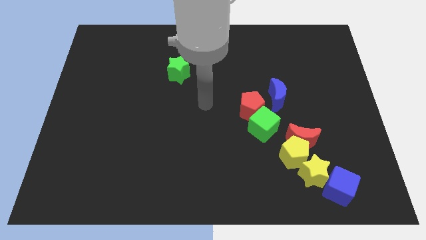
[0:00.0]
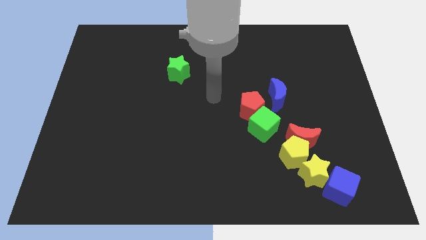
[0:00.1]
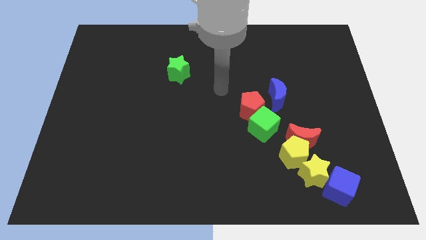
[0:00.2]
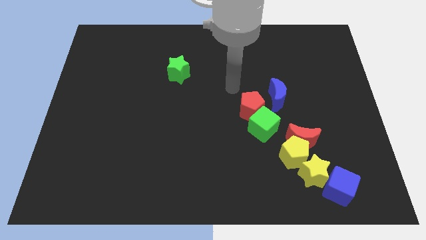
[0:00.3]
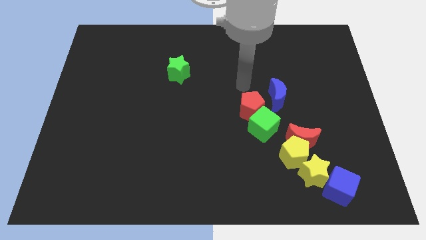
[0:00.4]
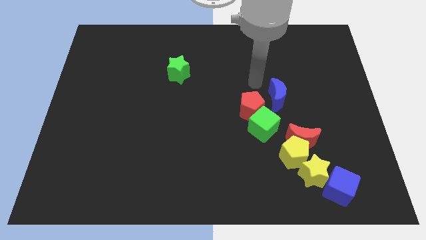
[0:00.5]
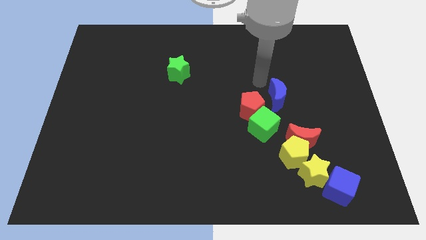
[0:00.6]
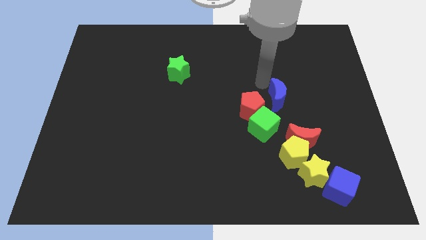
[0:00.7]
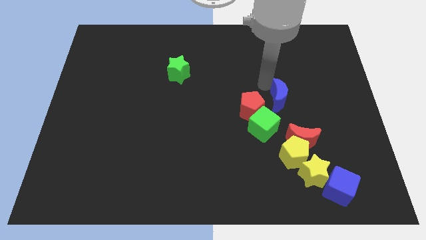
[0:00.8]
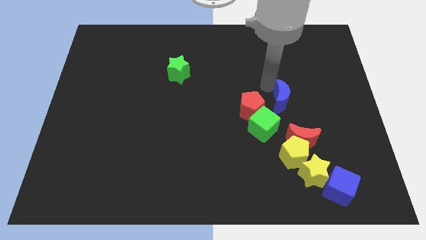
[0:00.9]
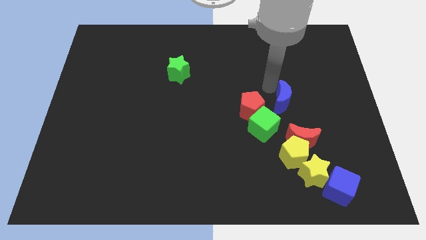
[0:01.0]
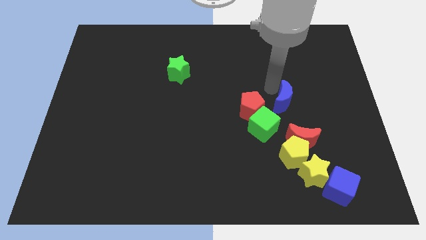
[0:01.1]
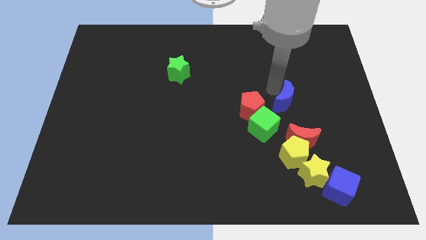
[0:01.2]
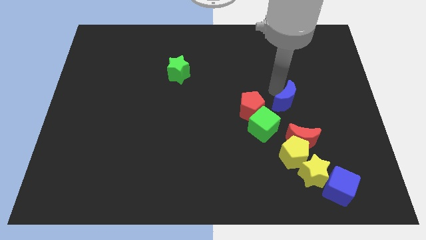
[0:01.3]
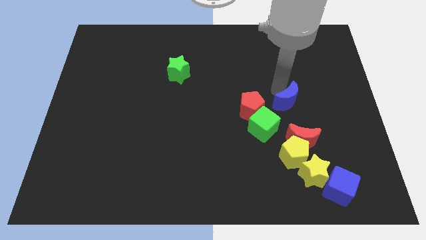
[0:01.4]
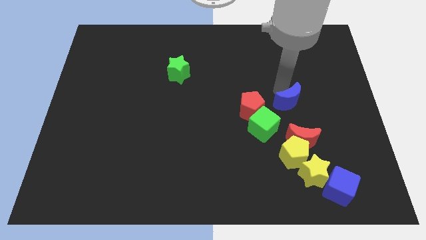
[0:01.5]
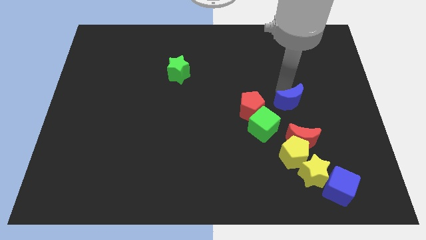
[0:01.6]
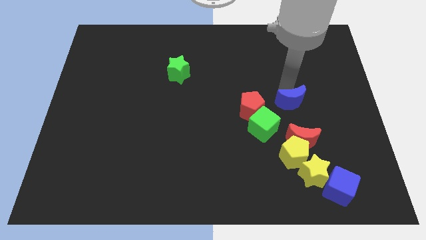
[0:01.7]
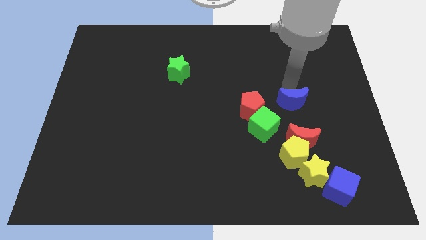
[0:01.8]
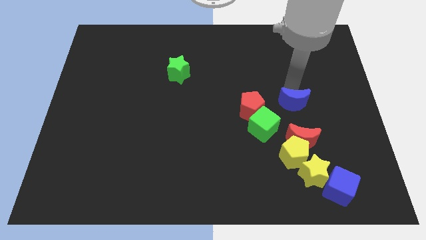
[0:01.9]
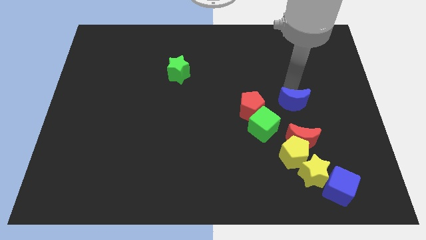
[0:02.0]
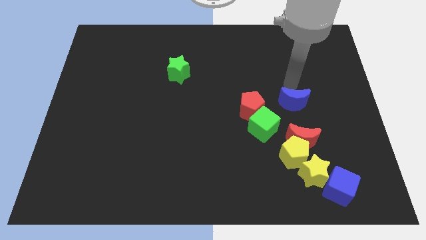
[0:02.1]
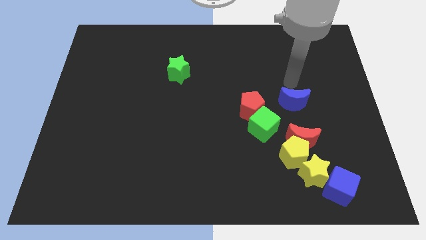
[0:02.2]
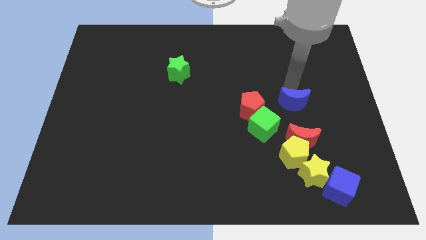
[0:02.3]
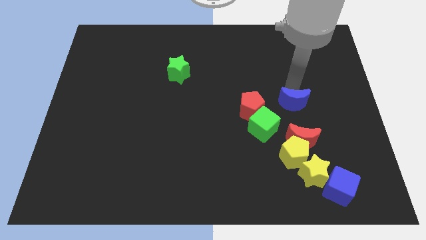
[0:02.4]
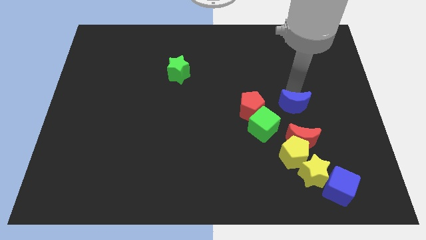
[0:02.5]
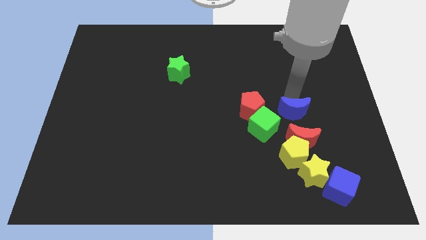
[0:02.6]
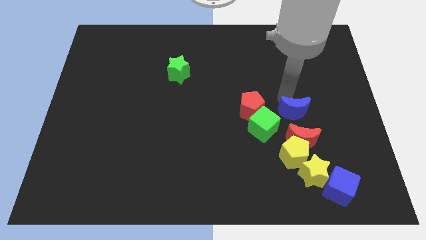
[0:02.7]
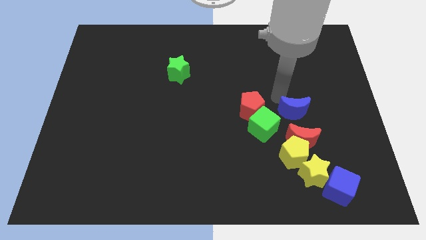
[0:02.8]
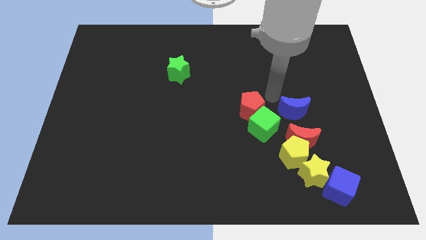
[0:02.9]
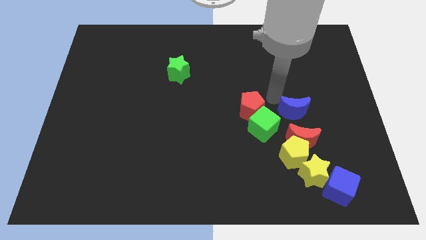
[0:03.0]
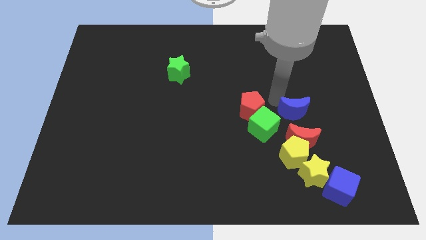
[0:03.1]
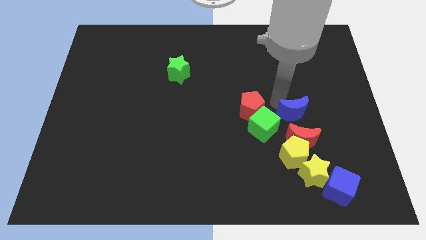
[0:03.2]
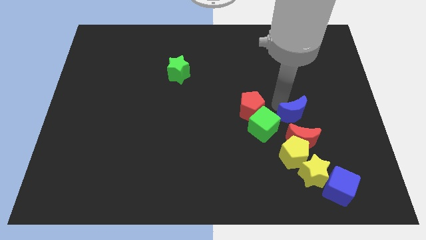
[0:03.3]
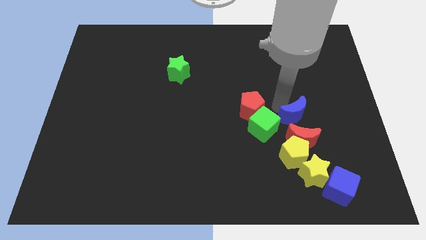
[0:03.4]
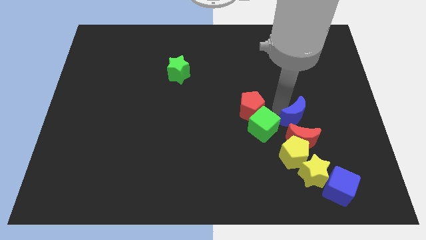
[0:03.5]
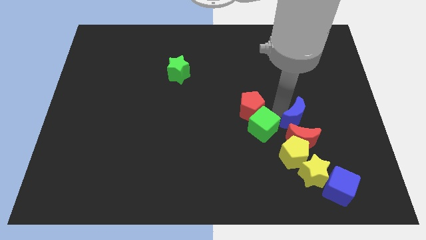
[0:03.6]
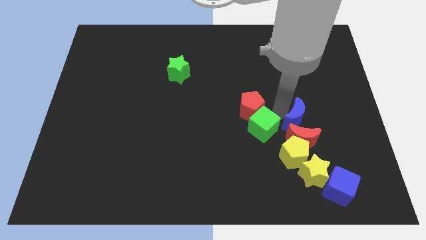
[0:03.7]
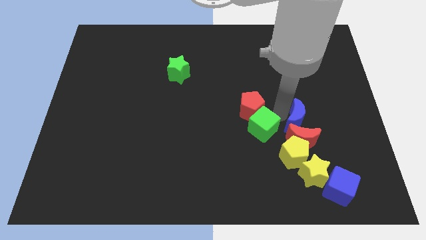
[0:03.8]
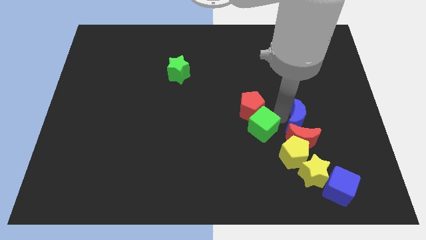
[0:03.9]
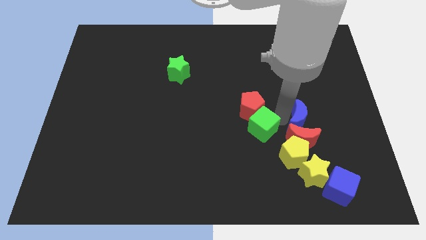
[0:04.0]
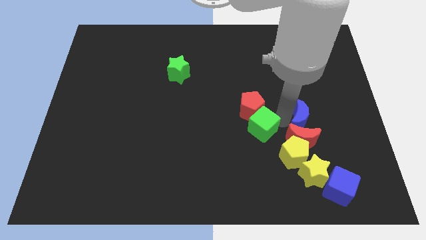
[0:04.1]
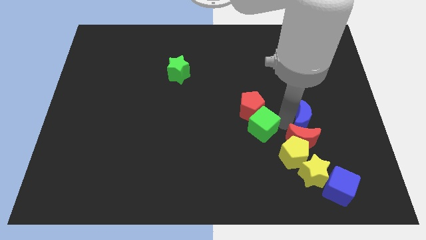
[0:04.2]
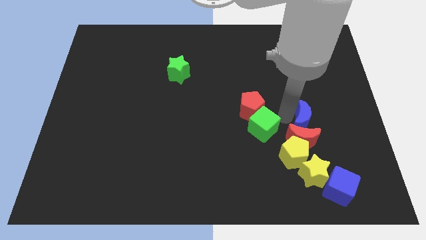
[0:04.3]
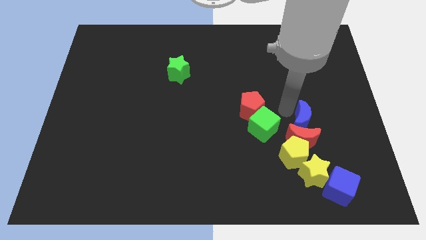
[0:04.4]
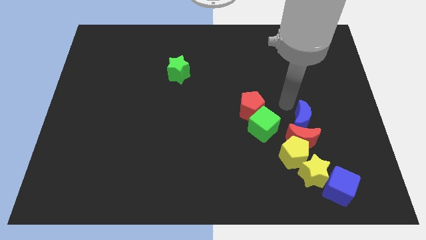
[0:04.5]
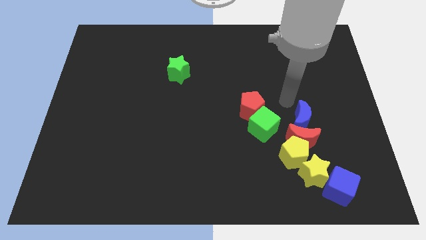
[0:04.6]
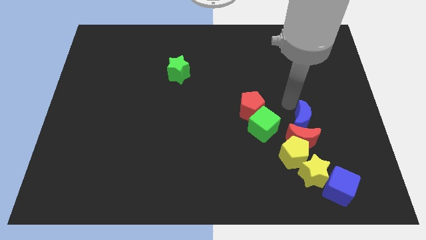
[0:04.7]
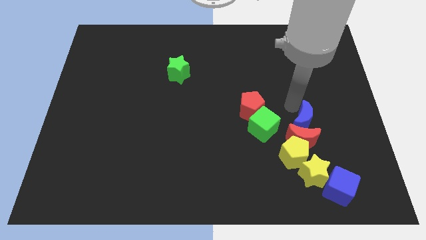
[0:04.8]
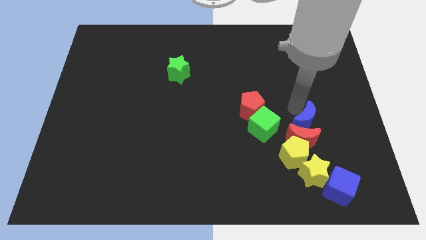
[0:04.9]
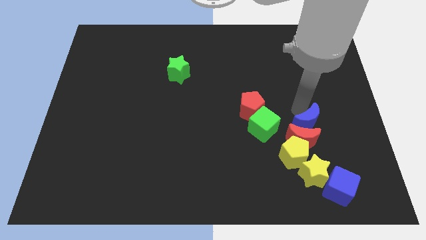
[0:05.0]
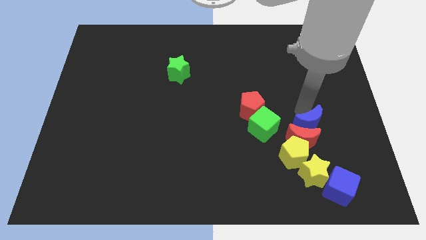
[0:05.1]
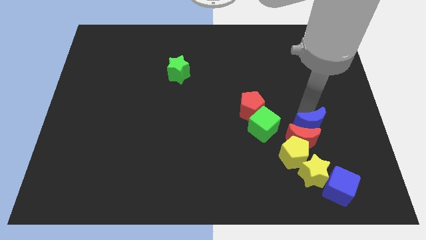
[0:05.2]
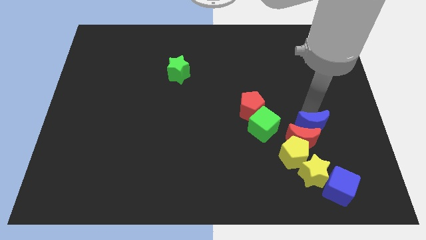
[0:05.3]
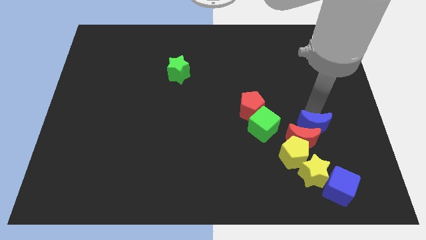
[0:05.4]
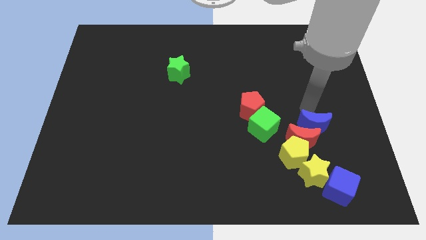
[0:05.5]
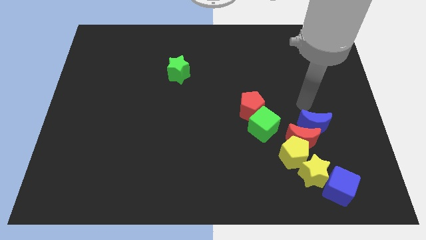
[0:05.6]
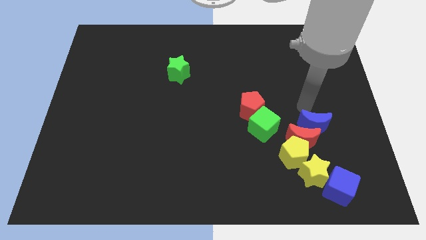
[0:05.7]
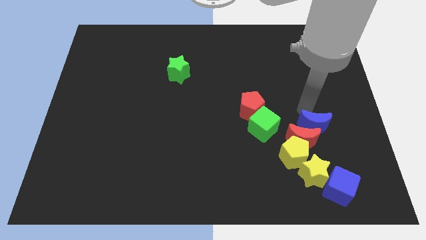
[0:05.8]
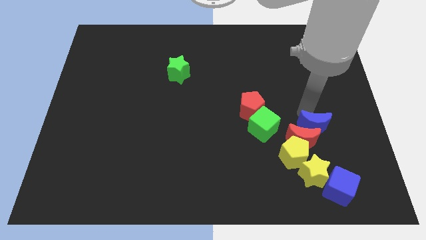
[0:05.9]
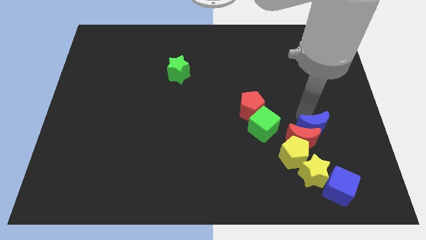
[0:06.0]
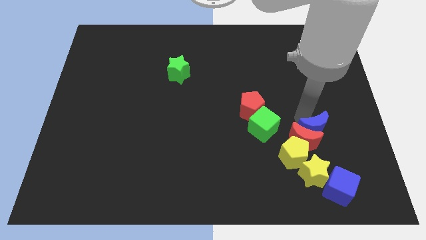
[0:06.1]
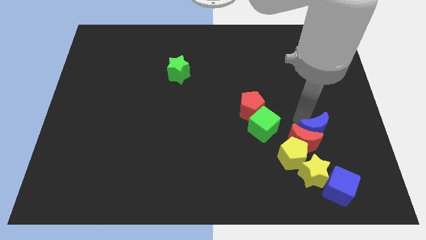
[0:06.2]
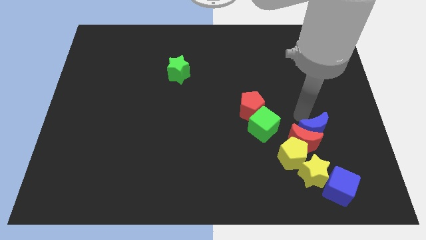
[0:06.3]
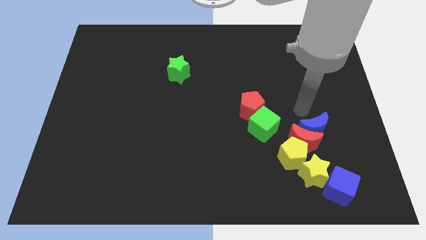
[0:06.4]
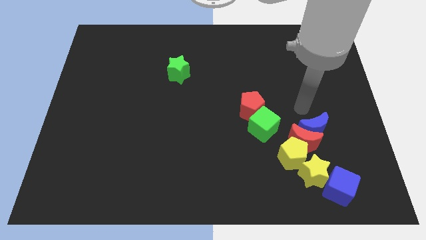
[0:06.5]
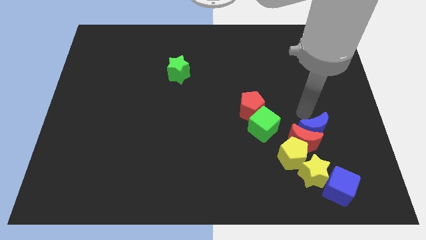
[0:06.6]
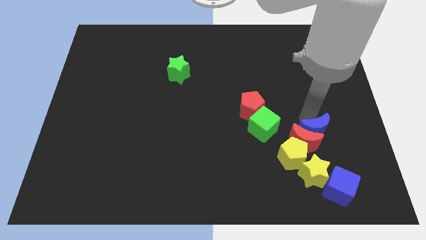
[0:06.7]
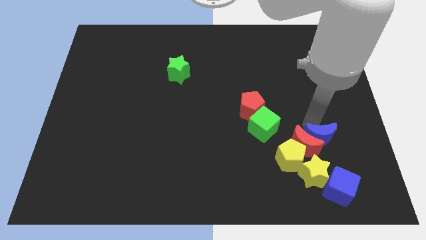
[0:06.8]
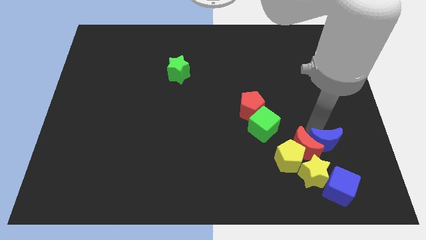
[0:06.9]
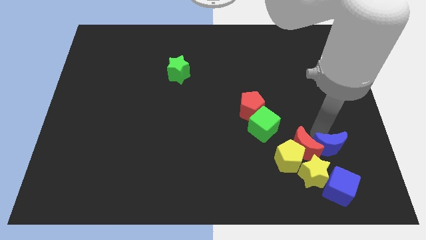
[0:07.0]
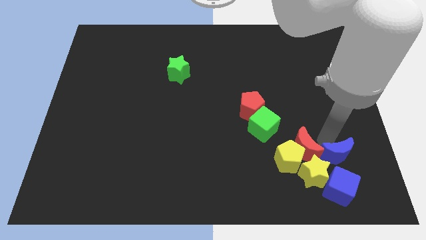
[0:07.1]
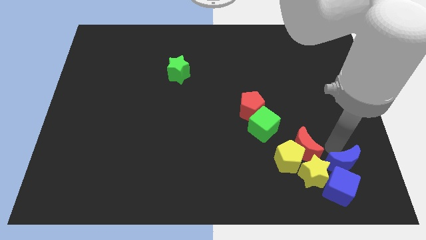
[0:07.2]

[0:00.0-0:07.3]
slide the blue moon close to the blue cube
